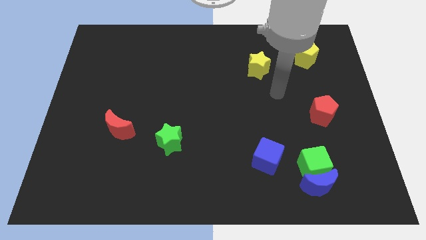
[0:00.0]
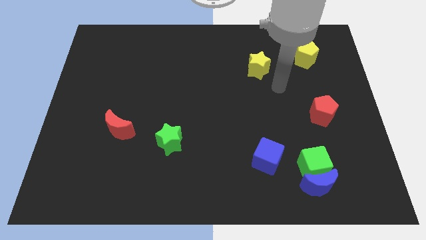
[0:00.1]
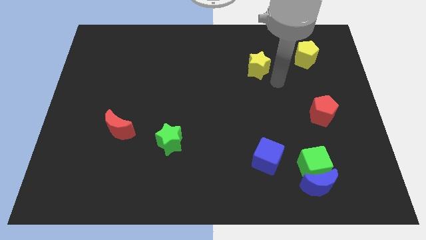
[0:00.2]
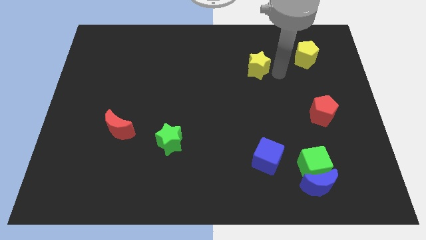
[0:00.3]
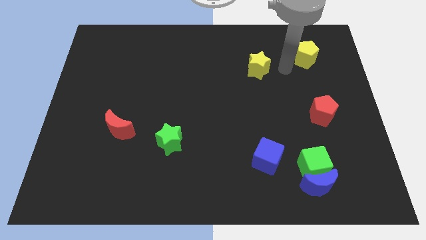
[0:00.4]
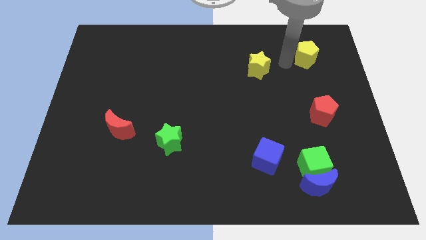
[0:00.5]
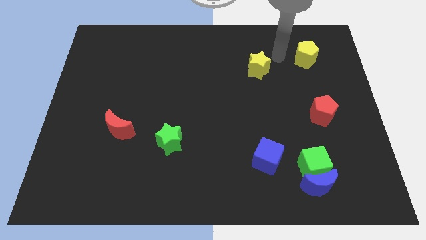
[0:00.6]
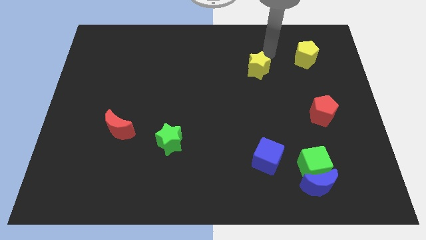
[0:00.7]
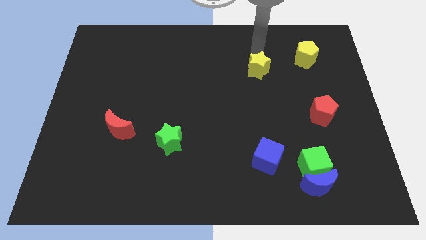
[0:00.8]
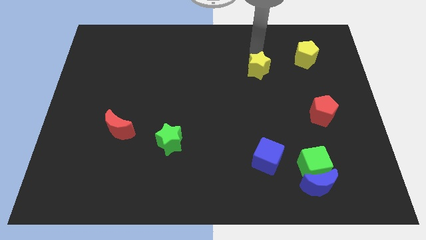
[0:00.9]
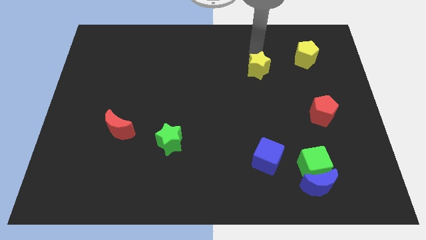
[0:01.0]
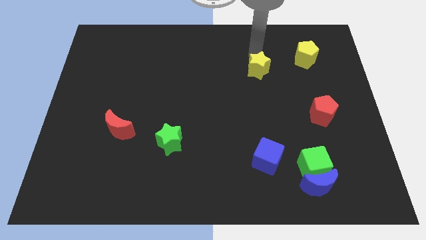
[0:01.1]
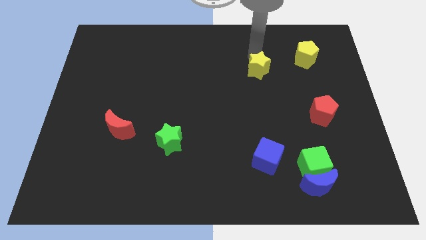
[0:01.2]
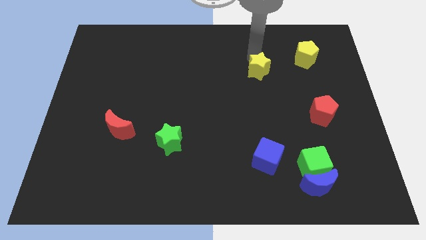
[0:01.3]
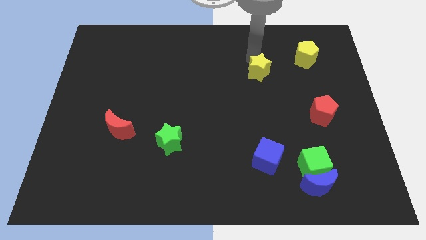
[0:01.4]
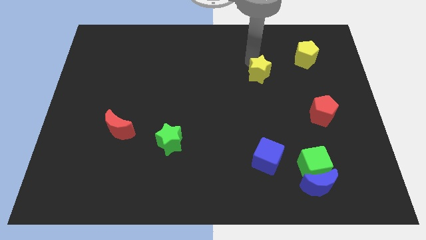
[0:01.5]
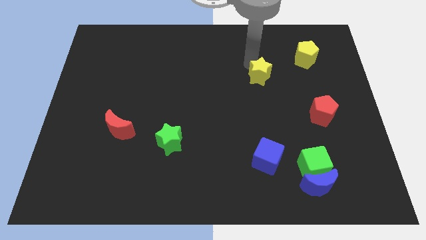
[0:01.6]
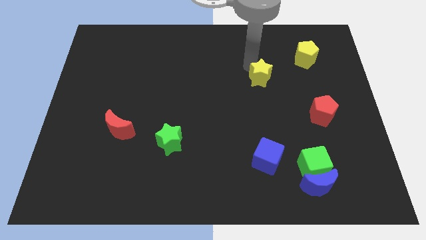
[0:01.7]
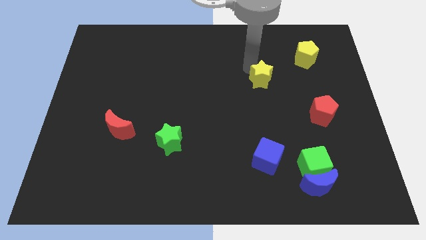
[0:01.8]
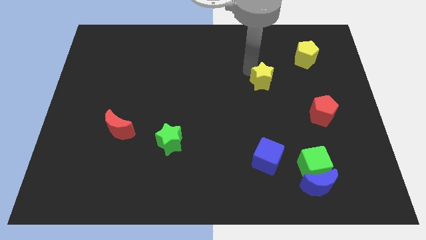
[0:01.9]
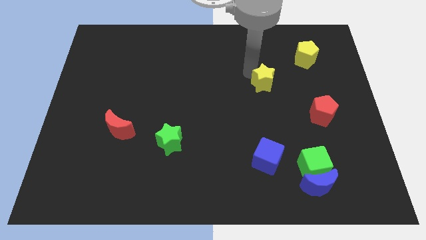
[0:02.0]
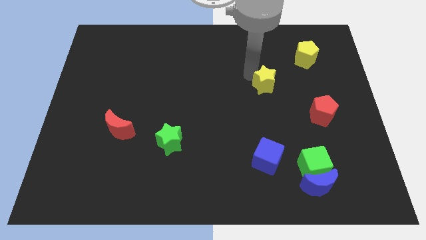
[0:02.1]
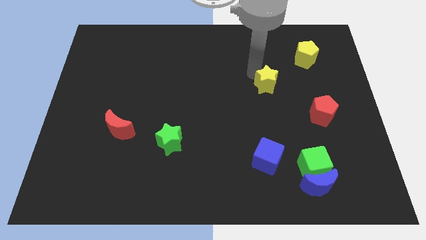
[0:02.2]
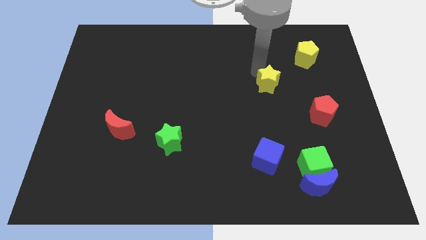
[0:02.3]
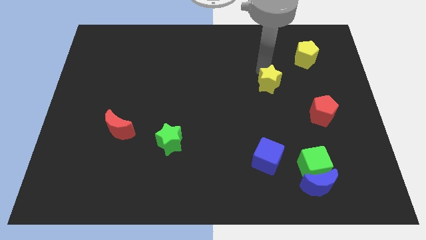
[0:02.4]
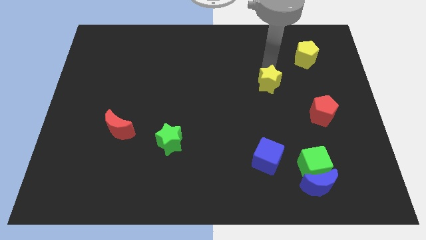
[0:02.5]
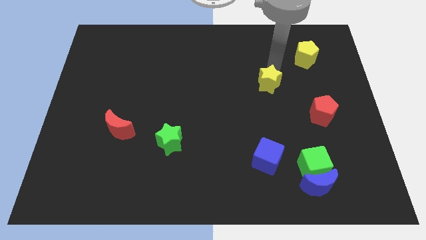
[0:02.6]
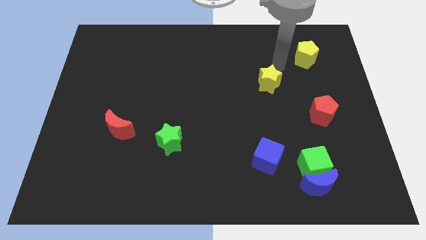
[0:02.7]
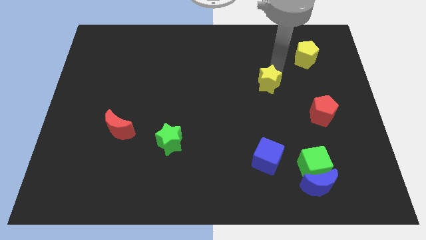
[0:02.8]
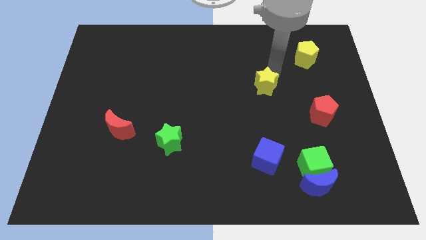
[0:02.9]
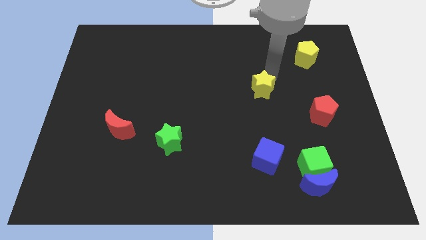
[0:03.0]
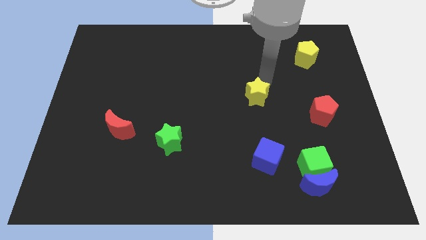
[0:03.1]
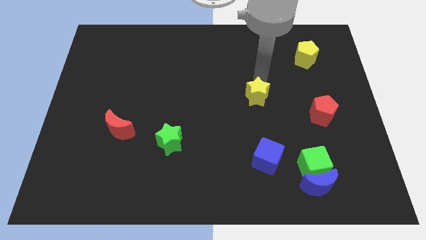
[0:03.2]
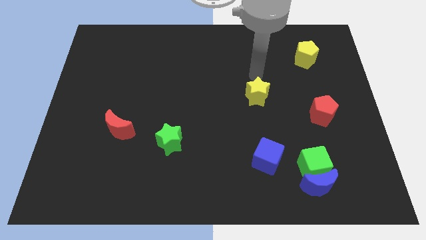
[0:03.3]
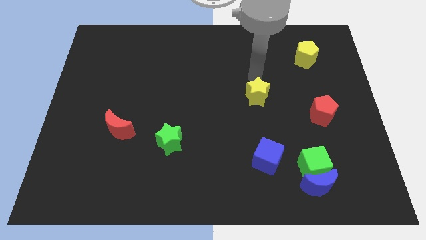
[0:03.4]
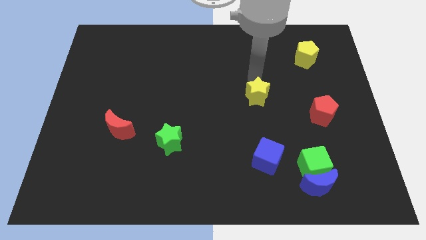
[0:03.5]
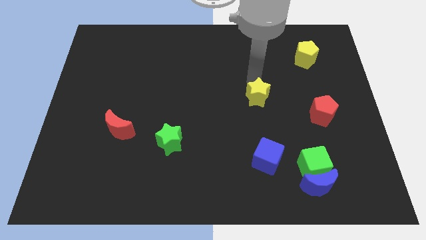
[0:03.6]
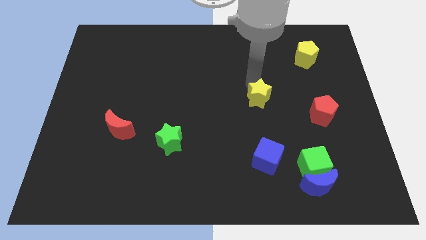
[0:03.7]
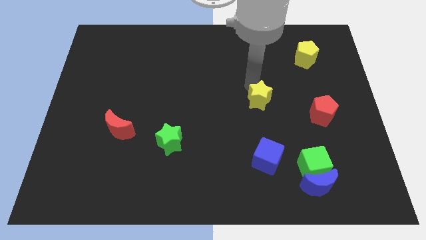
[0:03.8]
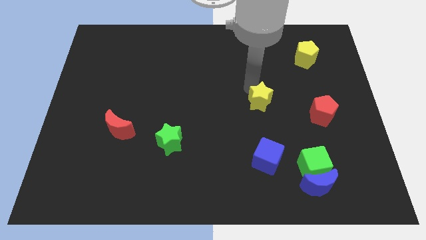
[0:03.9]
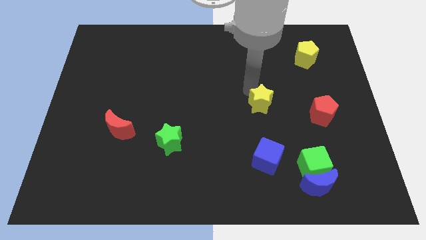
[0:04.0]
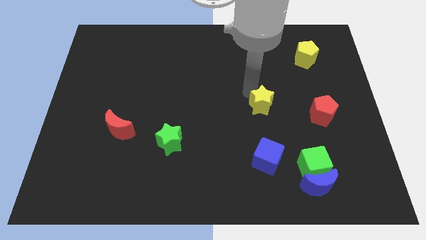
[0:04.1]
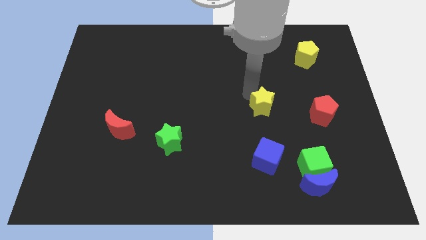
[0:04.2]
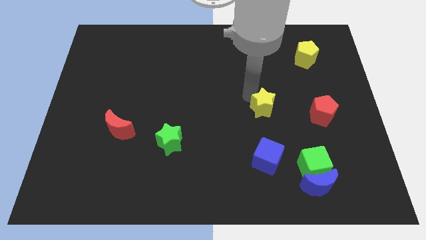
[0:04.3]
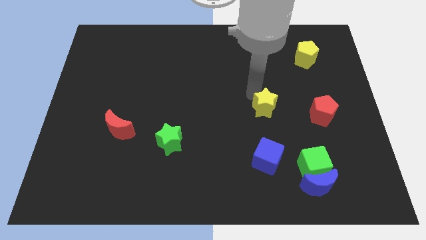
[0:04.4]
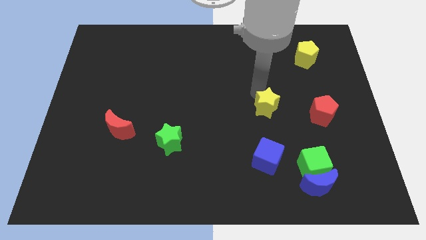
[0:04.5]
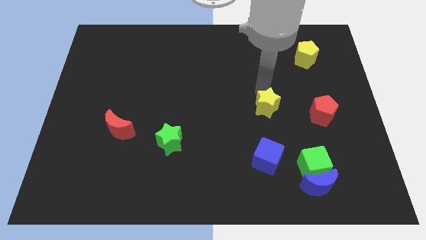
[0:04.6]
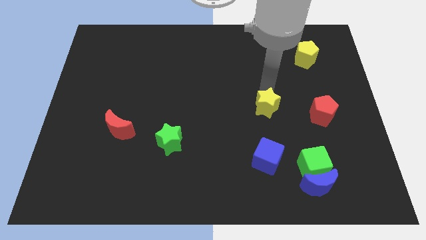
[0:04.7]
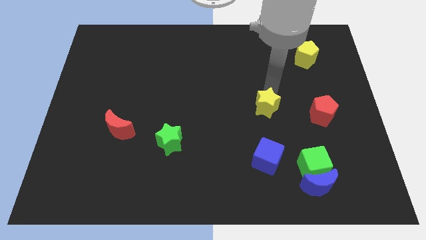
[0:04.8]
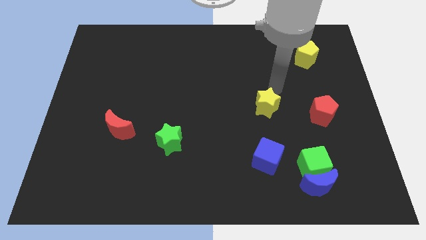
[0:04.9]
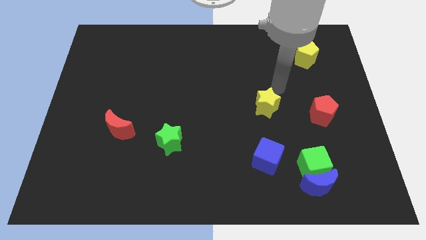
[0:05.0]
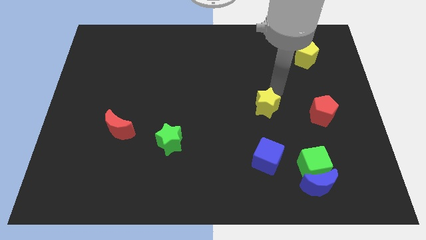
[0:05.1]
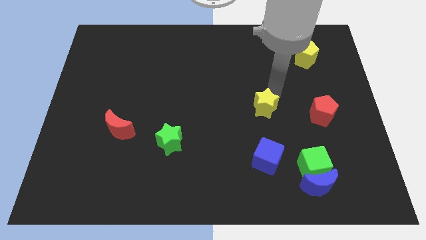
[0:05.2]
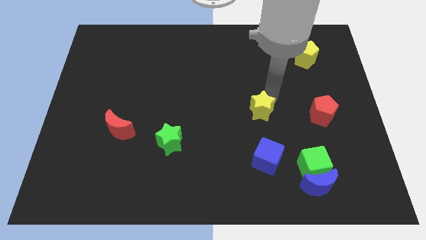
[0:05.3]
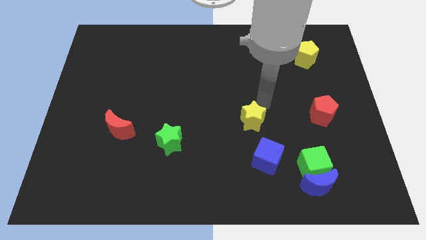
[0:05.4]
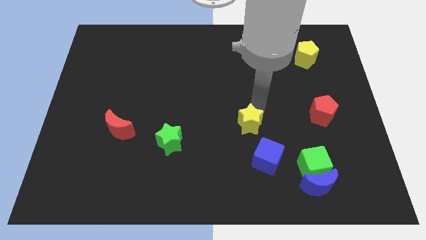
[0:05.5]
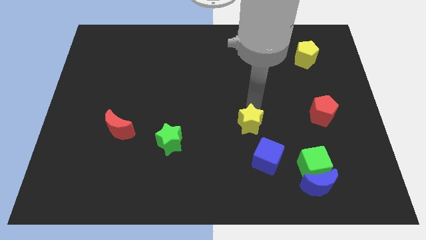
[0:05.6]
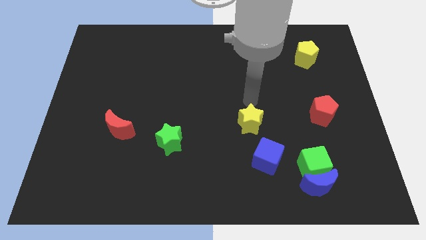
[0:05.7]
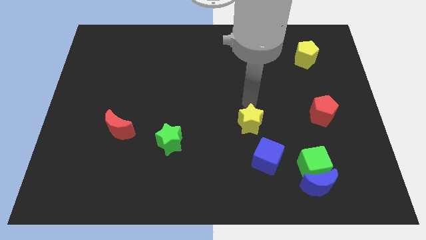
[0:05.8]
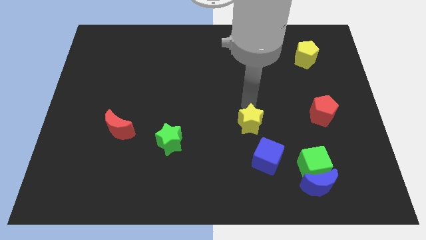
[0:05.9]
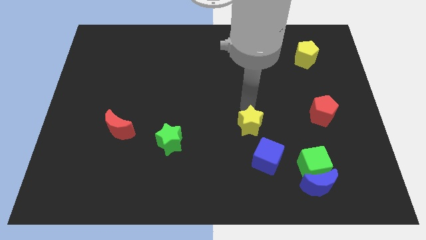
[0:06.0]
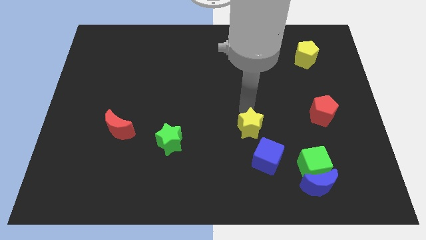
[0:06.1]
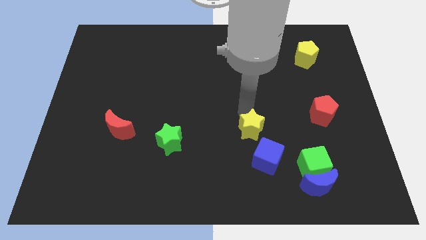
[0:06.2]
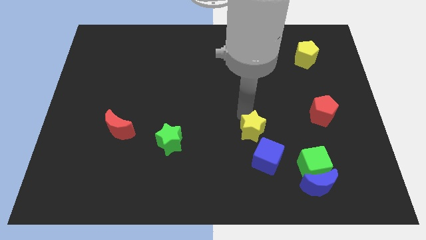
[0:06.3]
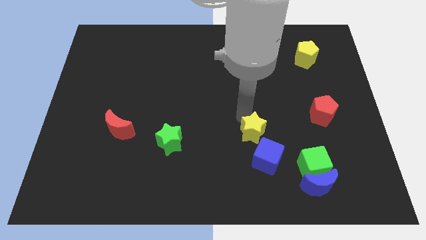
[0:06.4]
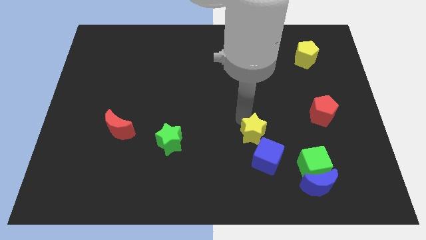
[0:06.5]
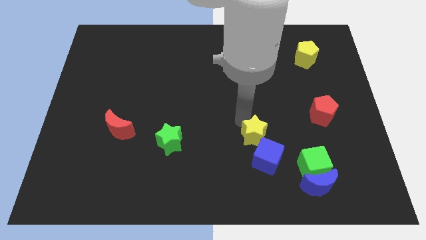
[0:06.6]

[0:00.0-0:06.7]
slide the yellow star down

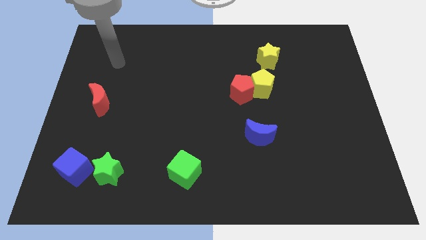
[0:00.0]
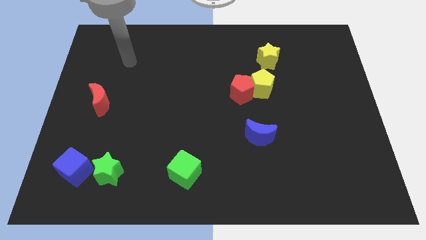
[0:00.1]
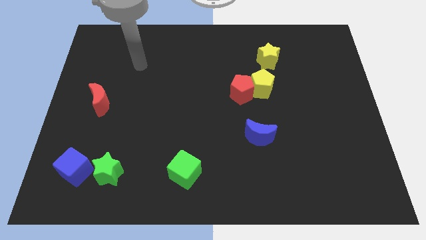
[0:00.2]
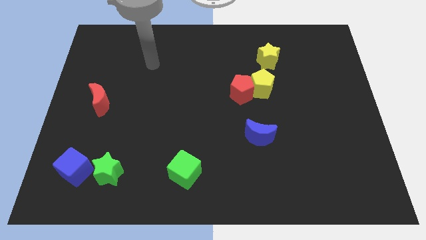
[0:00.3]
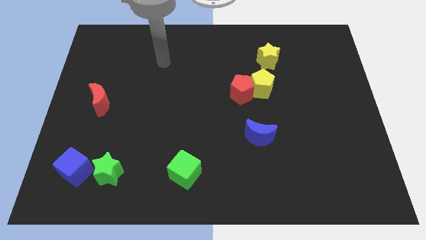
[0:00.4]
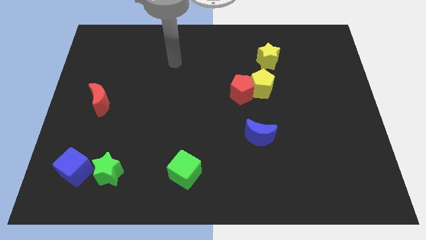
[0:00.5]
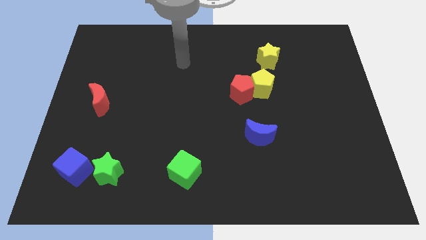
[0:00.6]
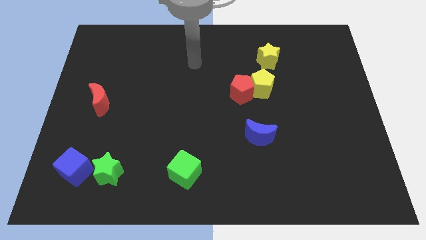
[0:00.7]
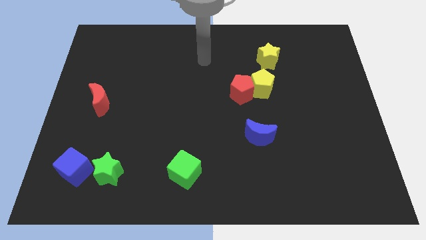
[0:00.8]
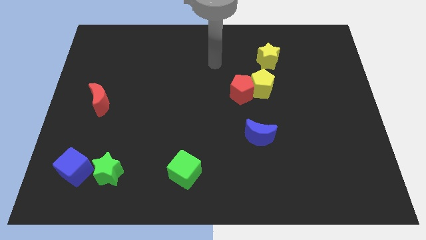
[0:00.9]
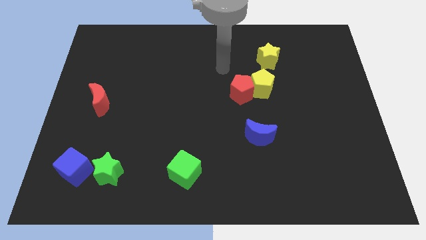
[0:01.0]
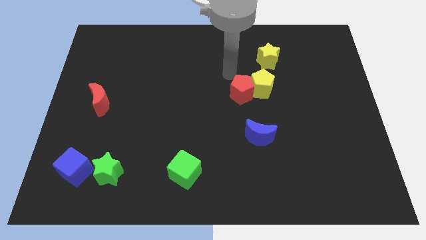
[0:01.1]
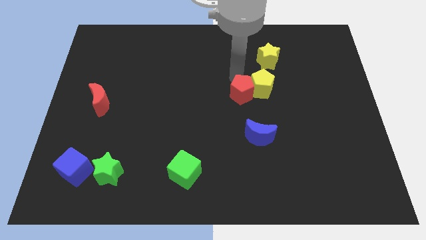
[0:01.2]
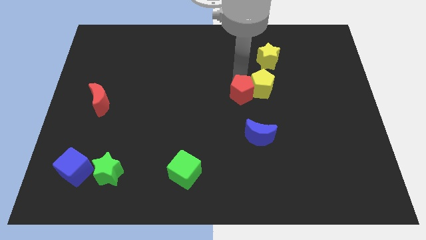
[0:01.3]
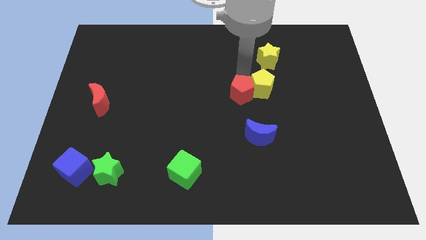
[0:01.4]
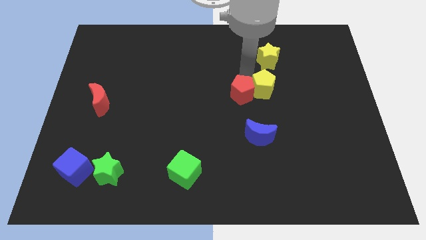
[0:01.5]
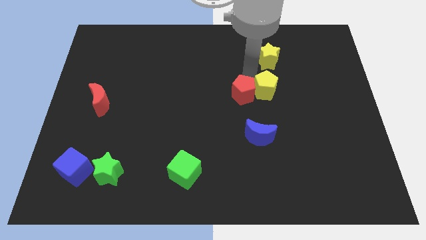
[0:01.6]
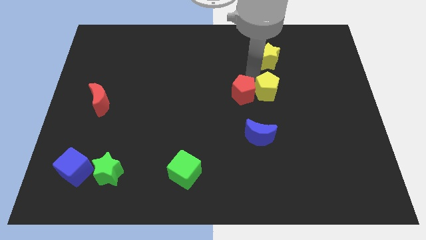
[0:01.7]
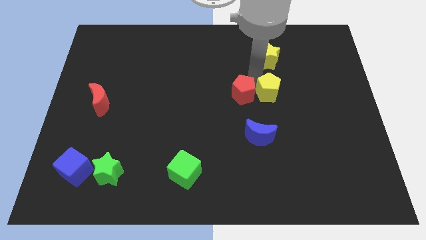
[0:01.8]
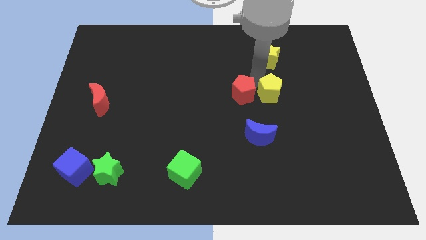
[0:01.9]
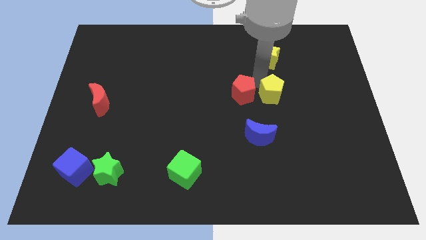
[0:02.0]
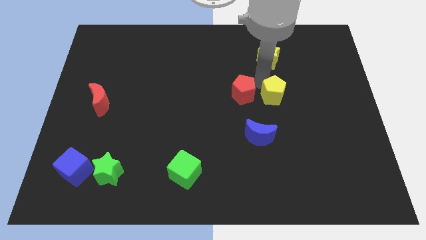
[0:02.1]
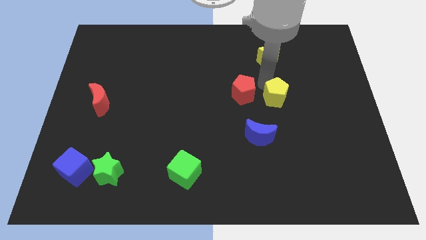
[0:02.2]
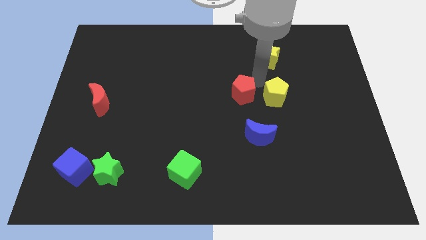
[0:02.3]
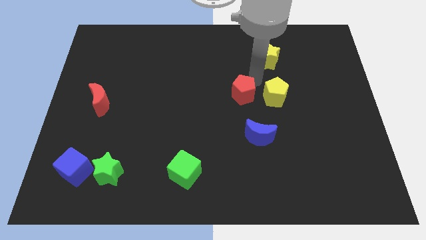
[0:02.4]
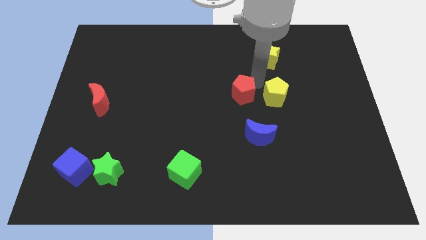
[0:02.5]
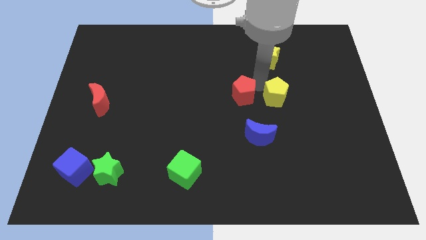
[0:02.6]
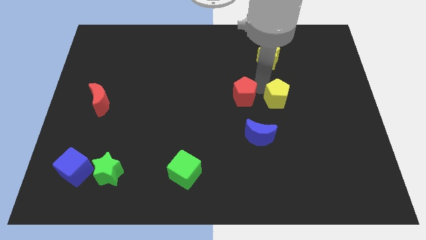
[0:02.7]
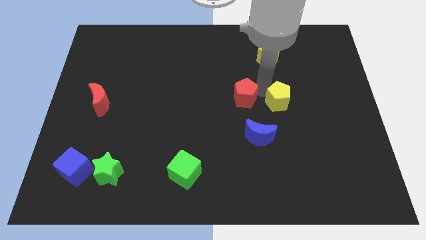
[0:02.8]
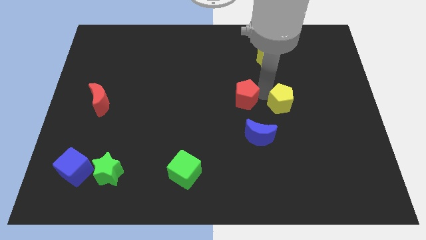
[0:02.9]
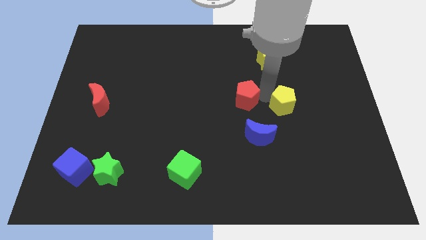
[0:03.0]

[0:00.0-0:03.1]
move the yellow pentagon a little bit down and to the right
